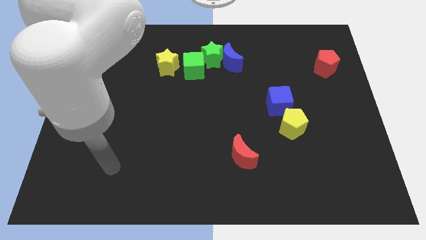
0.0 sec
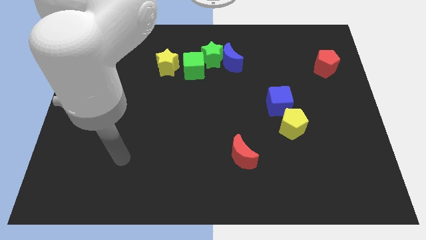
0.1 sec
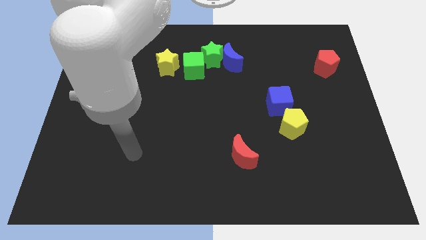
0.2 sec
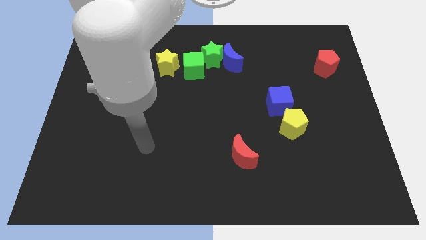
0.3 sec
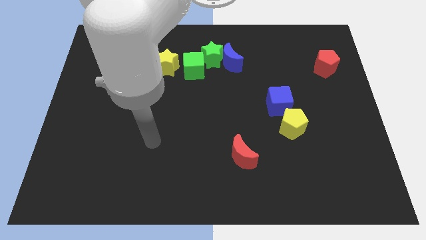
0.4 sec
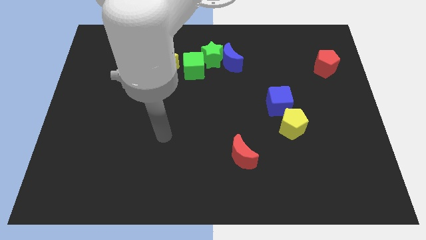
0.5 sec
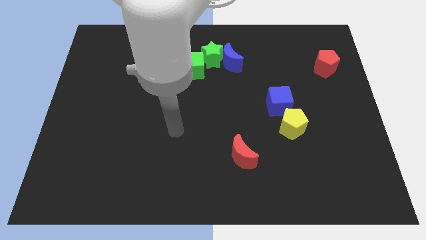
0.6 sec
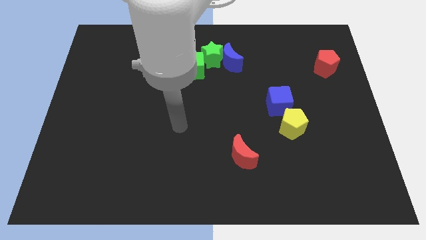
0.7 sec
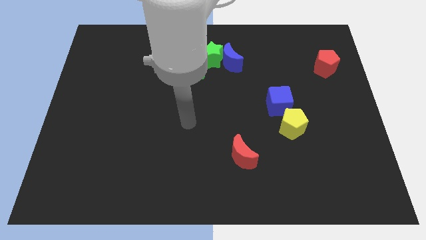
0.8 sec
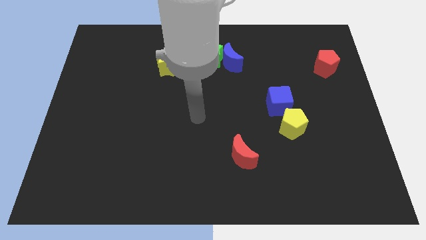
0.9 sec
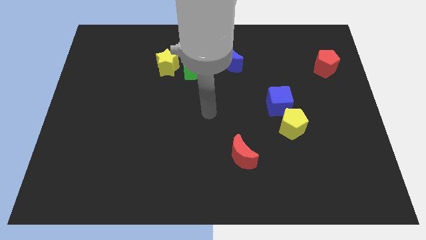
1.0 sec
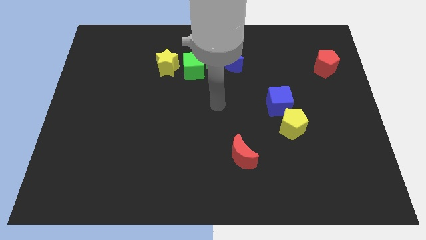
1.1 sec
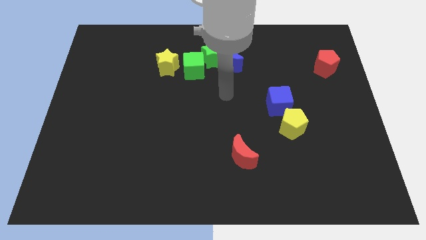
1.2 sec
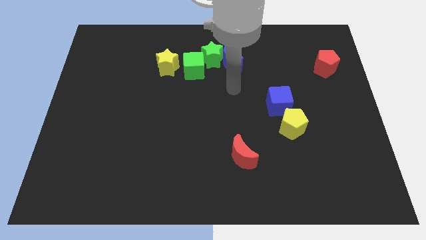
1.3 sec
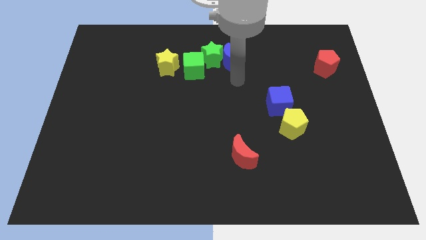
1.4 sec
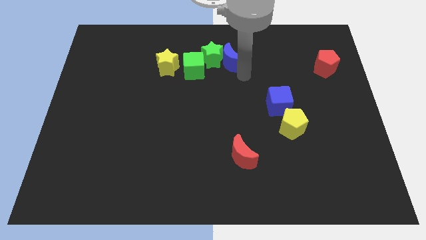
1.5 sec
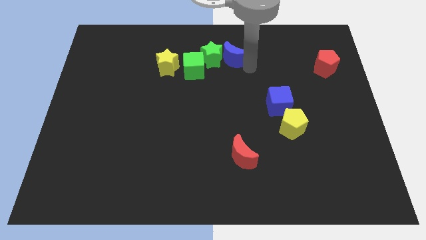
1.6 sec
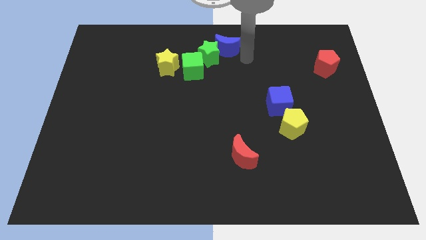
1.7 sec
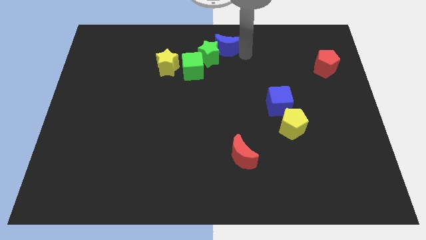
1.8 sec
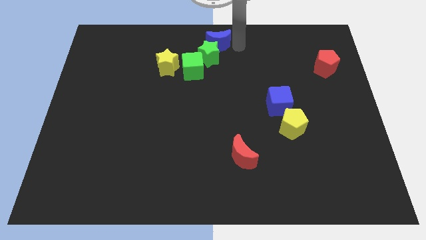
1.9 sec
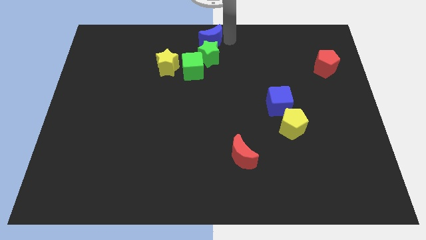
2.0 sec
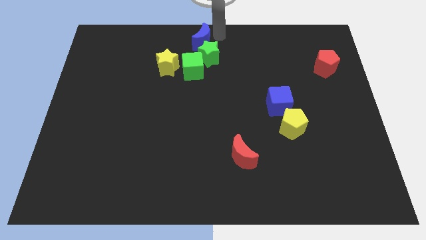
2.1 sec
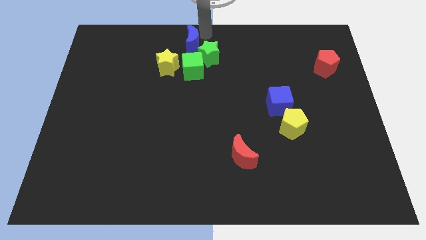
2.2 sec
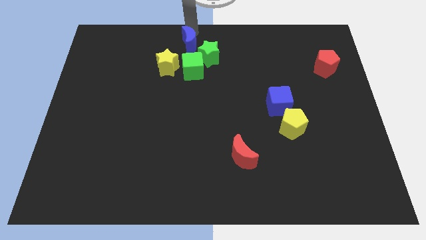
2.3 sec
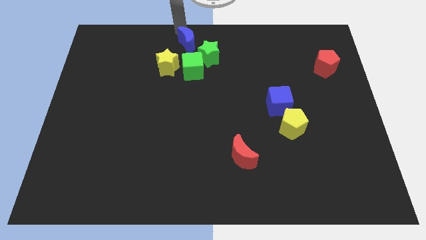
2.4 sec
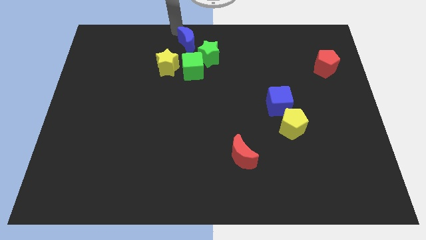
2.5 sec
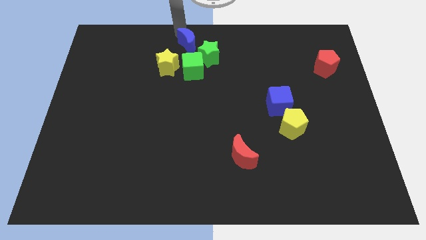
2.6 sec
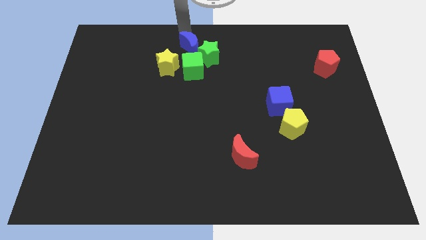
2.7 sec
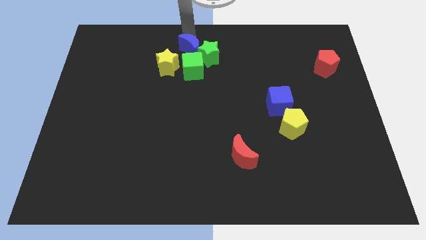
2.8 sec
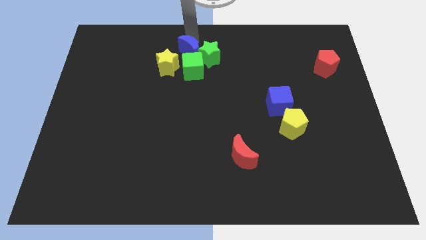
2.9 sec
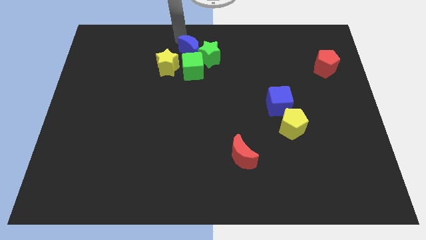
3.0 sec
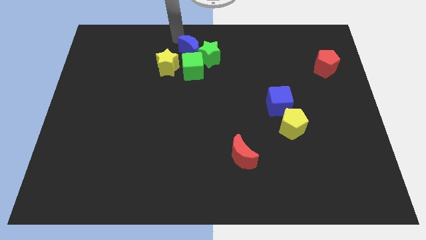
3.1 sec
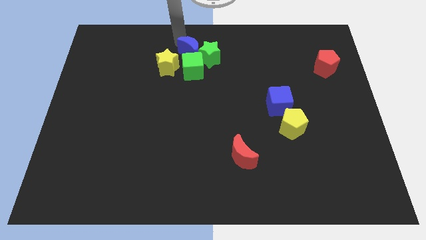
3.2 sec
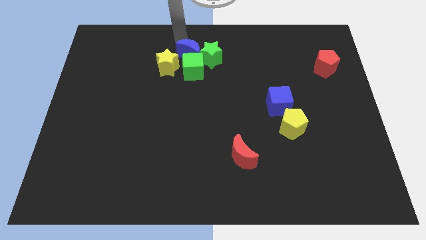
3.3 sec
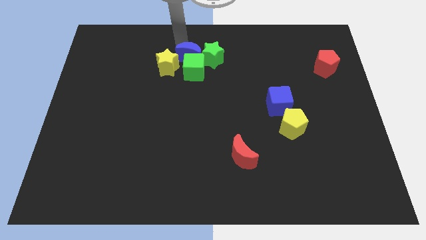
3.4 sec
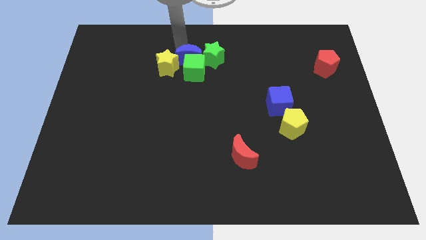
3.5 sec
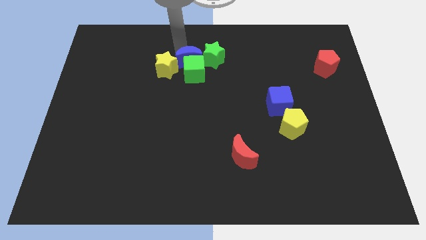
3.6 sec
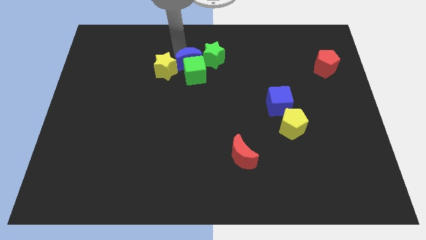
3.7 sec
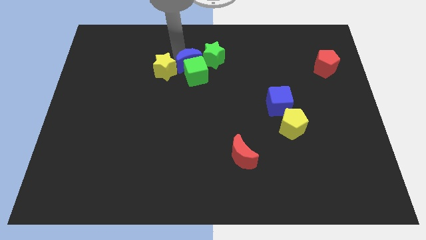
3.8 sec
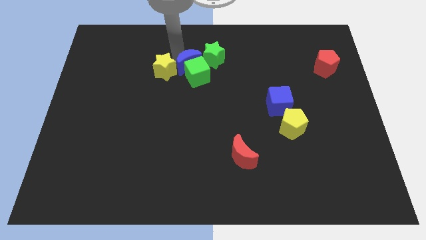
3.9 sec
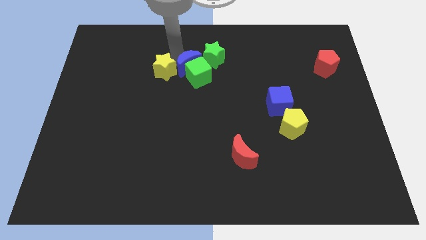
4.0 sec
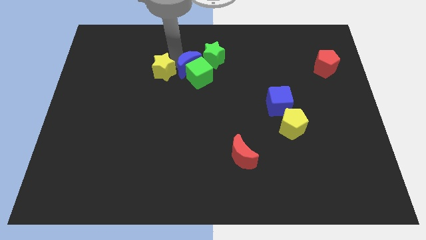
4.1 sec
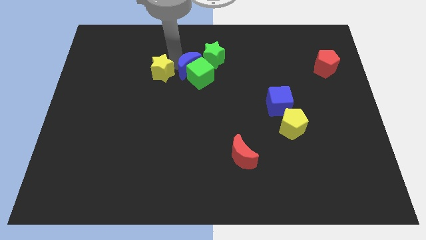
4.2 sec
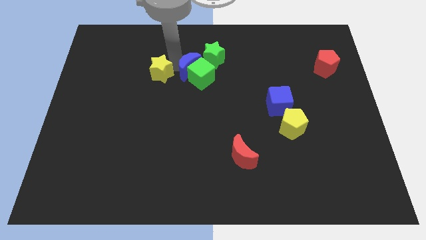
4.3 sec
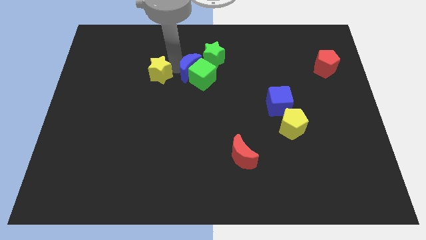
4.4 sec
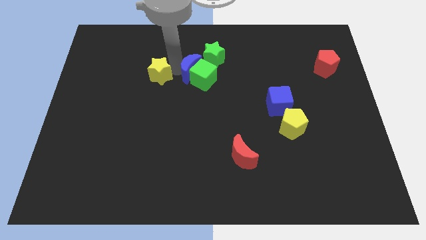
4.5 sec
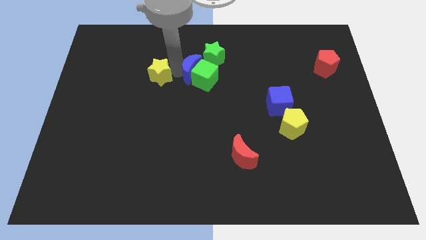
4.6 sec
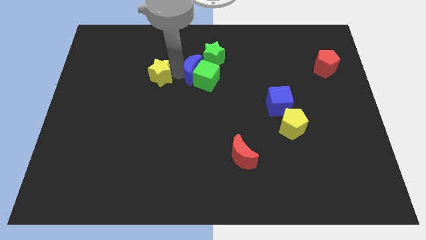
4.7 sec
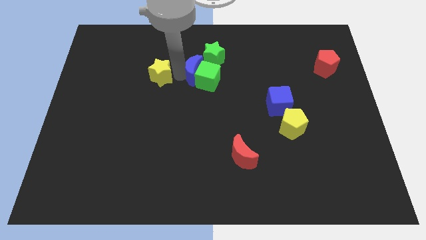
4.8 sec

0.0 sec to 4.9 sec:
put the blue moon to the bottom of the green star

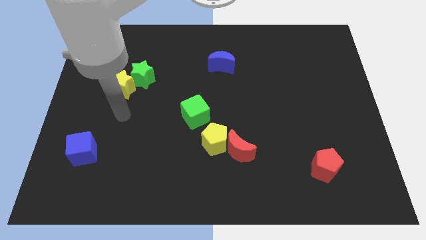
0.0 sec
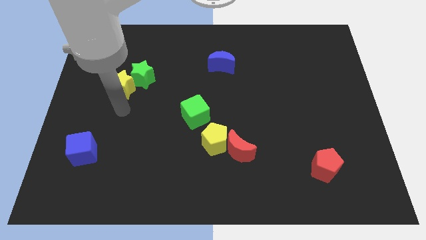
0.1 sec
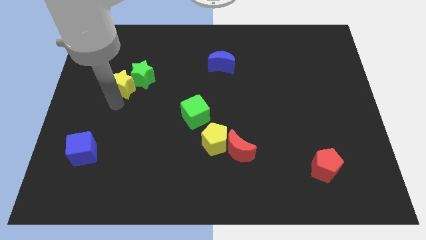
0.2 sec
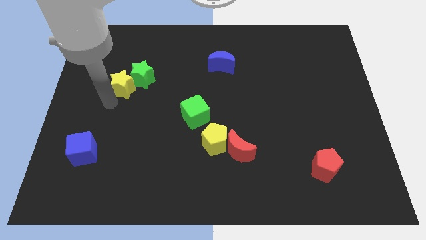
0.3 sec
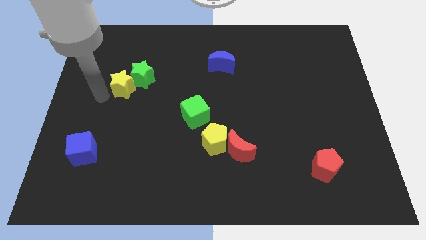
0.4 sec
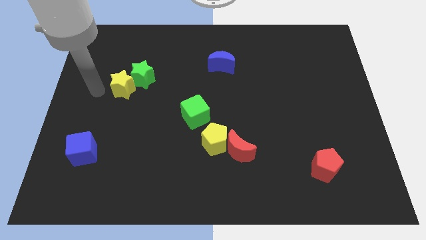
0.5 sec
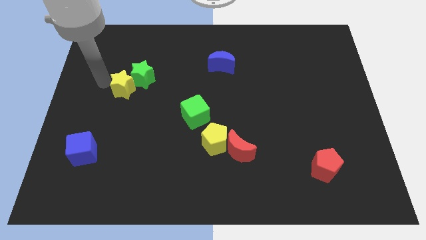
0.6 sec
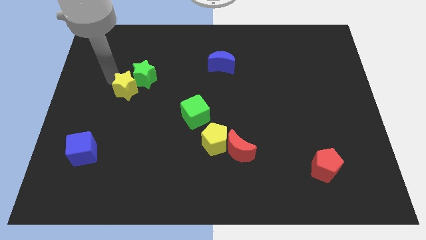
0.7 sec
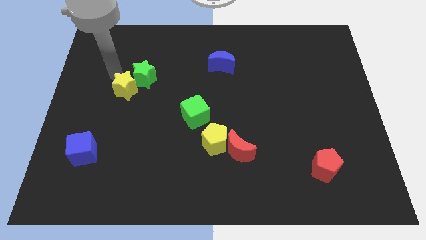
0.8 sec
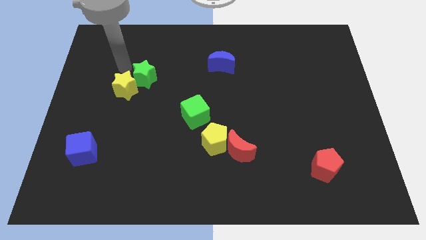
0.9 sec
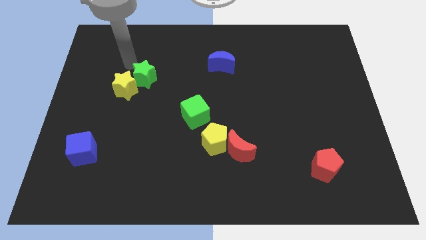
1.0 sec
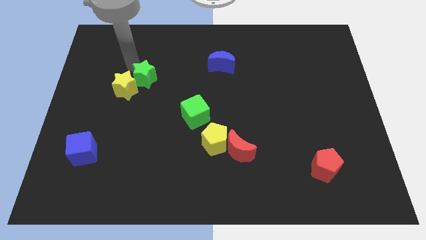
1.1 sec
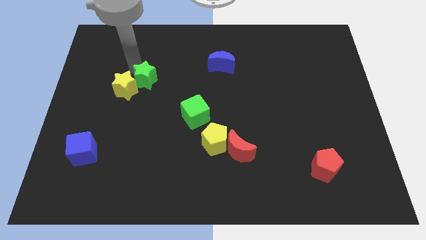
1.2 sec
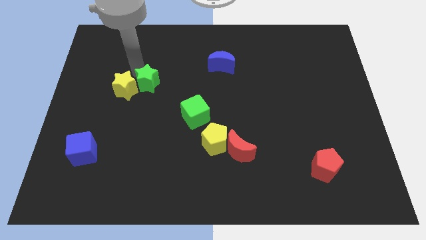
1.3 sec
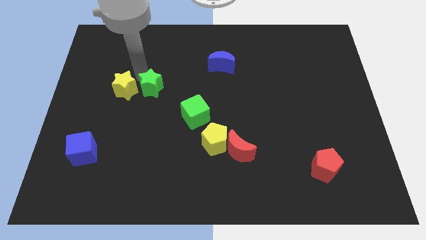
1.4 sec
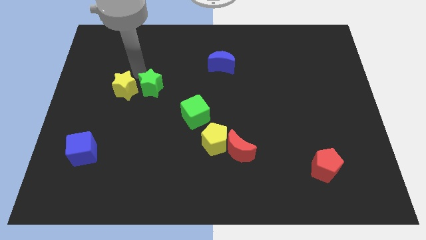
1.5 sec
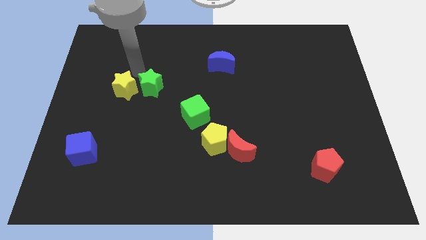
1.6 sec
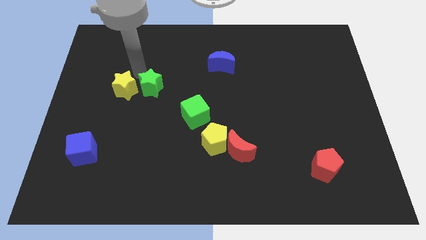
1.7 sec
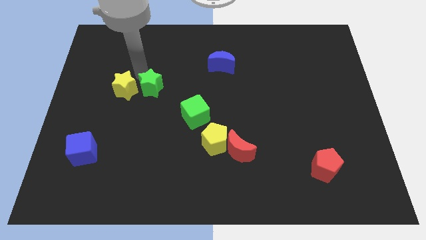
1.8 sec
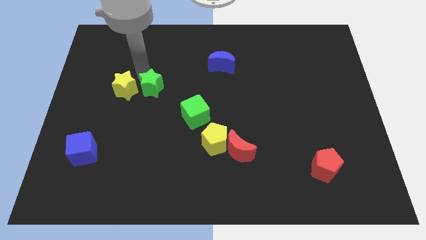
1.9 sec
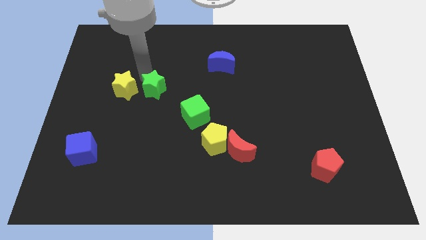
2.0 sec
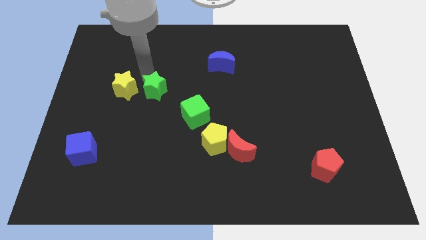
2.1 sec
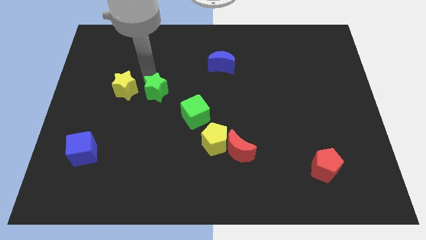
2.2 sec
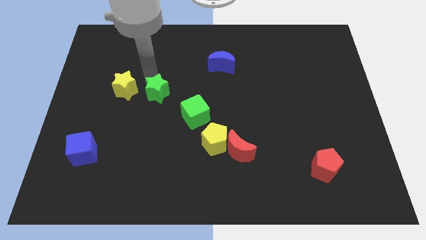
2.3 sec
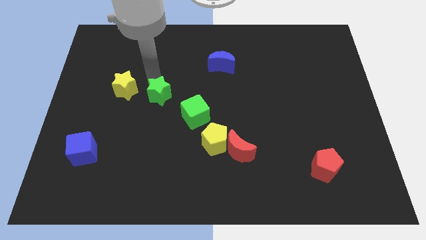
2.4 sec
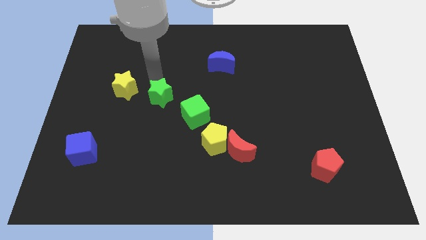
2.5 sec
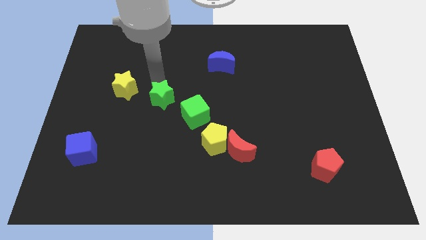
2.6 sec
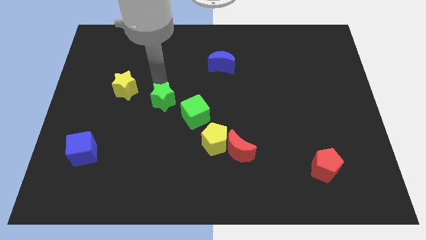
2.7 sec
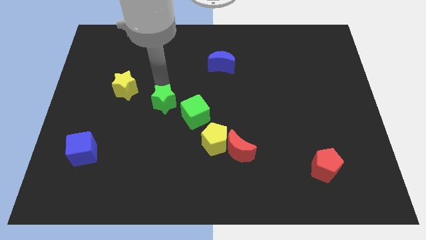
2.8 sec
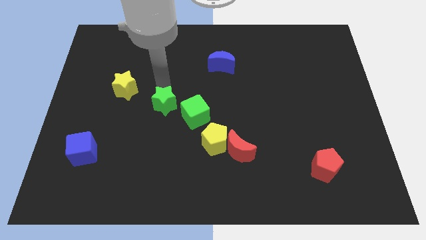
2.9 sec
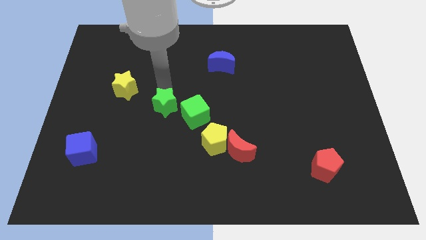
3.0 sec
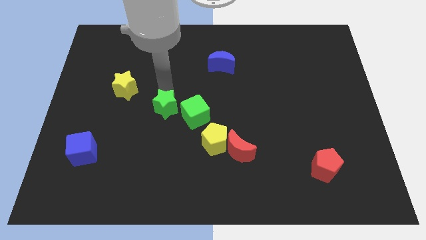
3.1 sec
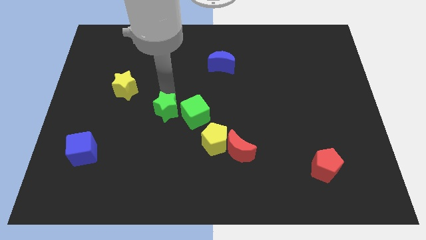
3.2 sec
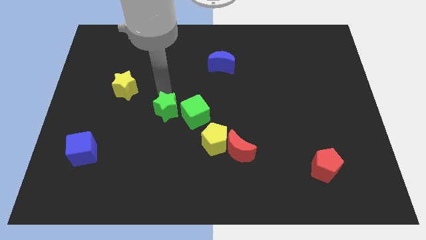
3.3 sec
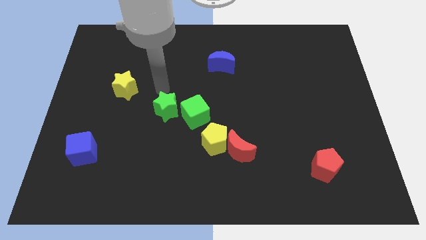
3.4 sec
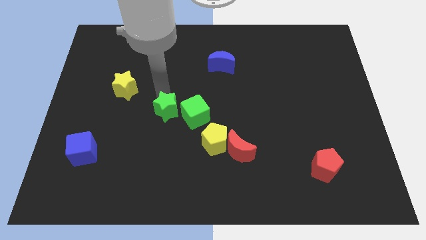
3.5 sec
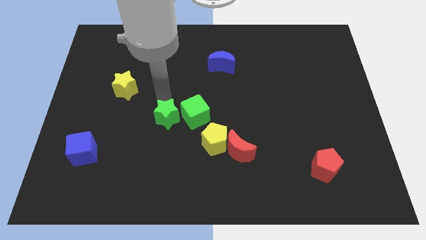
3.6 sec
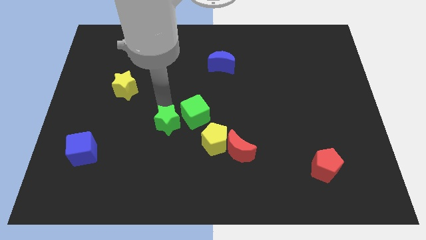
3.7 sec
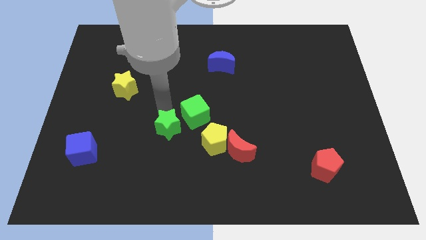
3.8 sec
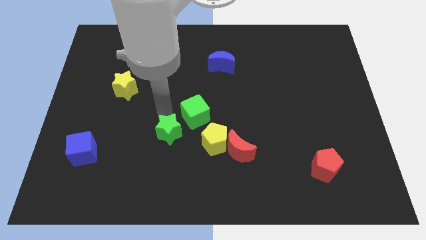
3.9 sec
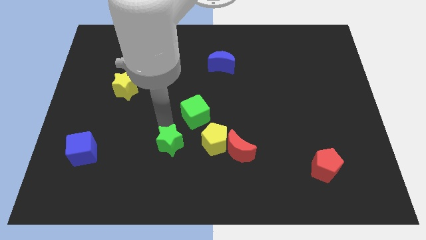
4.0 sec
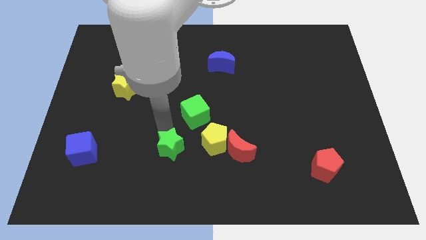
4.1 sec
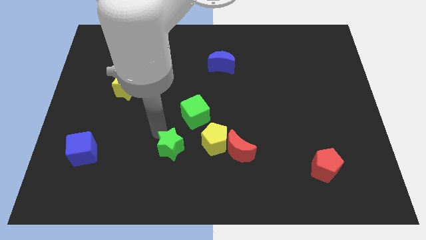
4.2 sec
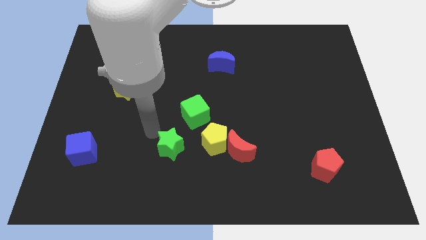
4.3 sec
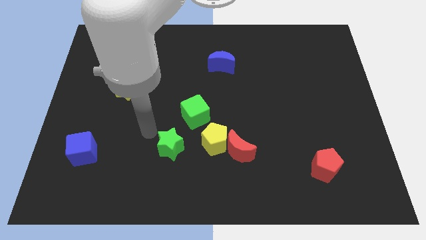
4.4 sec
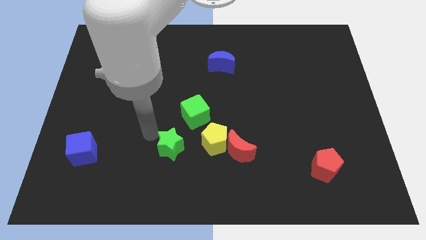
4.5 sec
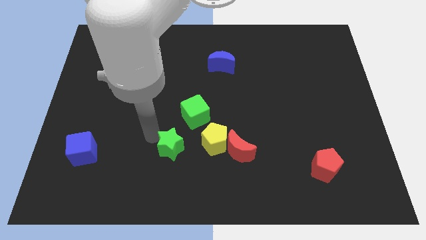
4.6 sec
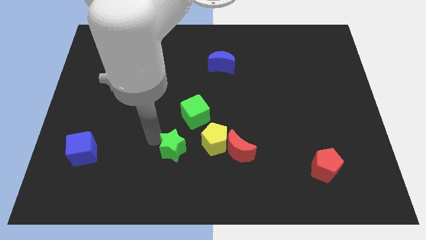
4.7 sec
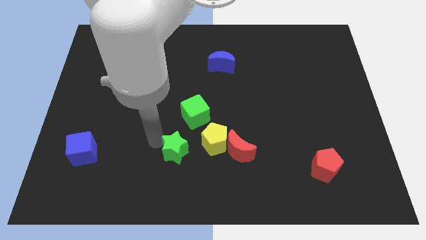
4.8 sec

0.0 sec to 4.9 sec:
push the green star to the bottom left of the yellow pentagon
